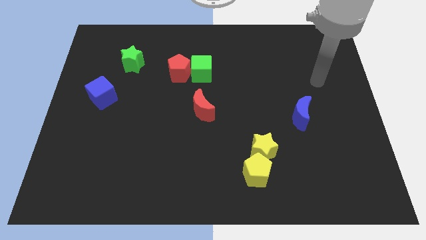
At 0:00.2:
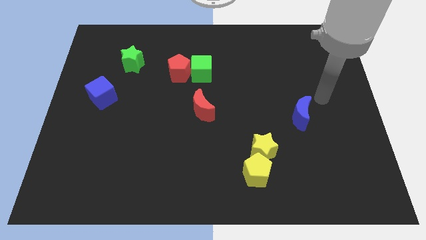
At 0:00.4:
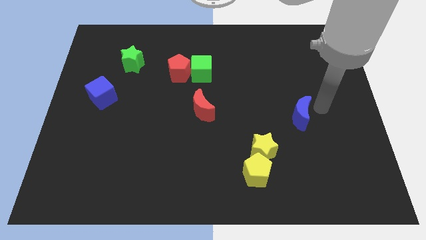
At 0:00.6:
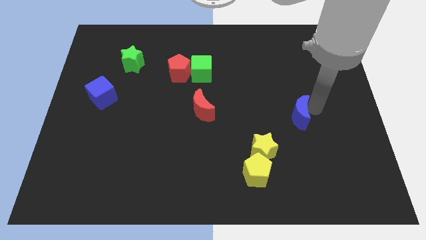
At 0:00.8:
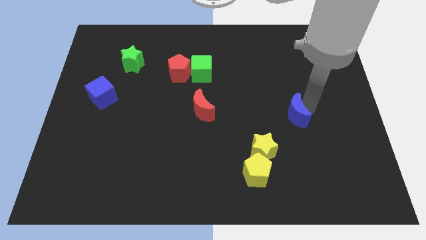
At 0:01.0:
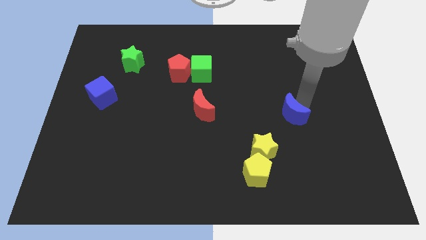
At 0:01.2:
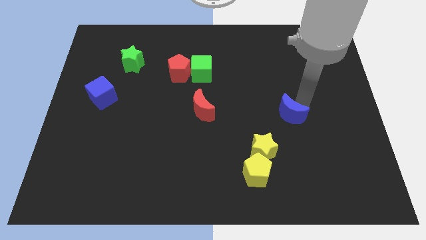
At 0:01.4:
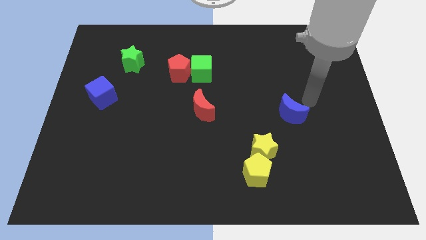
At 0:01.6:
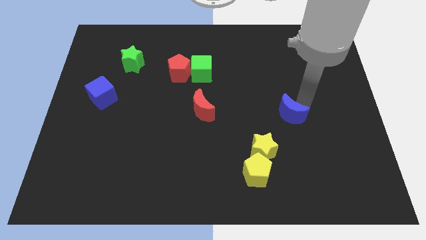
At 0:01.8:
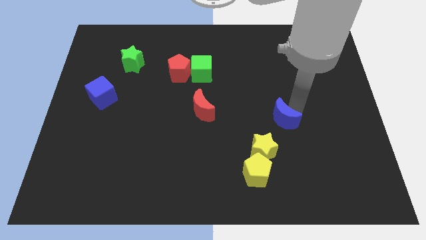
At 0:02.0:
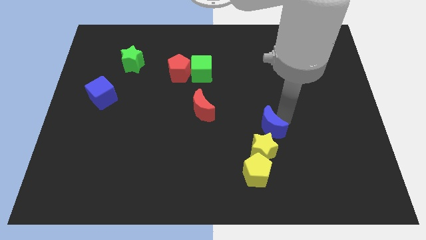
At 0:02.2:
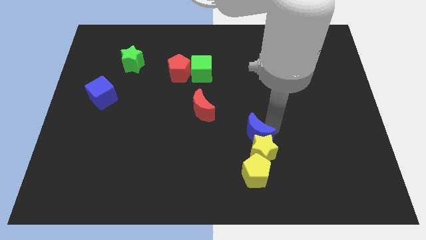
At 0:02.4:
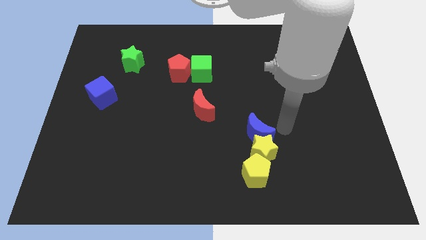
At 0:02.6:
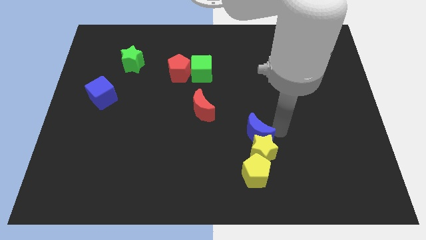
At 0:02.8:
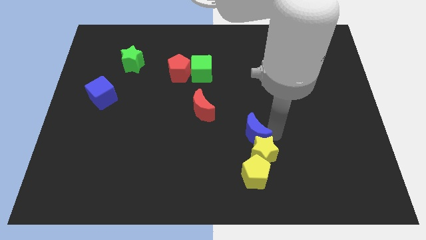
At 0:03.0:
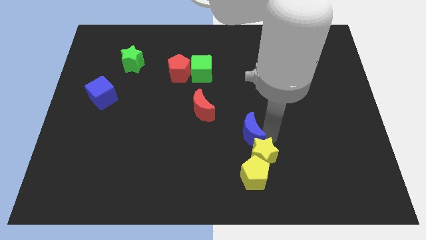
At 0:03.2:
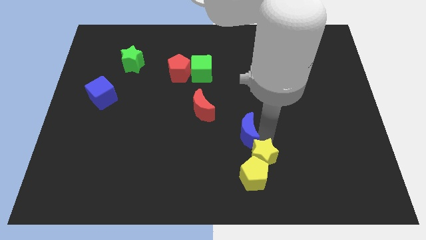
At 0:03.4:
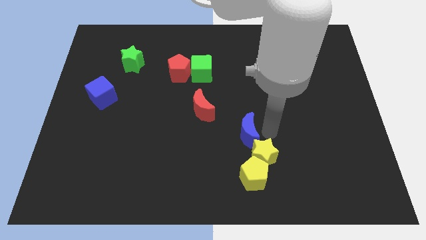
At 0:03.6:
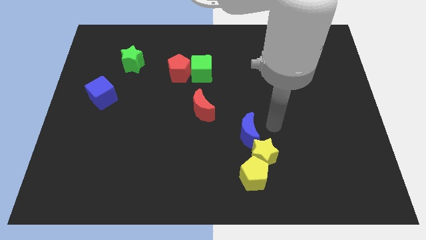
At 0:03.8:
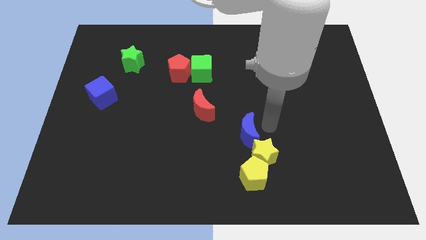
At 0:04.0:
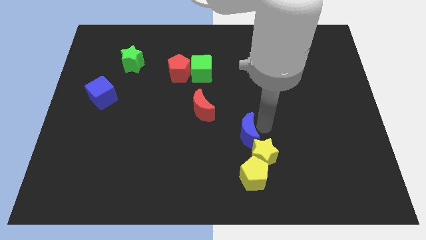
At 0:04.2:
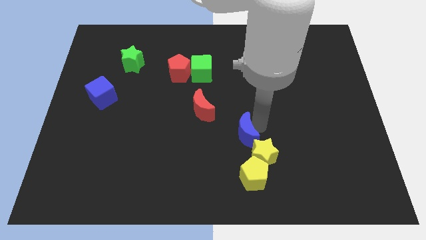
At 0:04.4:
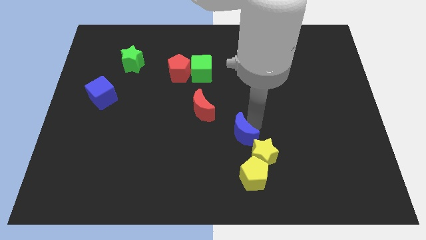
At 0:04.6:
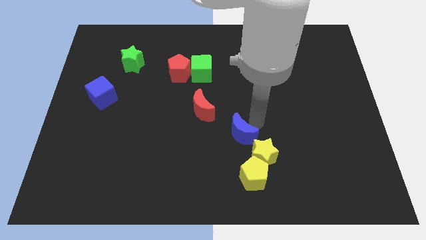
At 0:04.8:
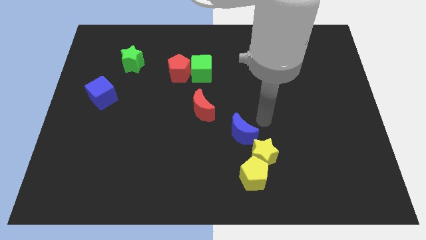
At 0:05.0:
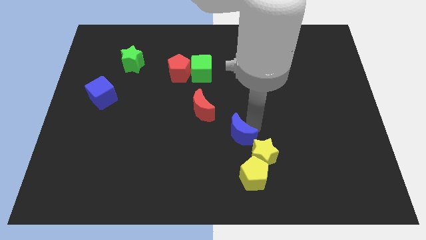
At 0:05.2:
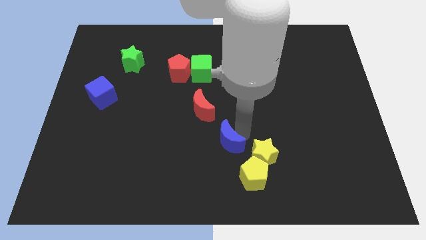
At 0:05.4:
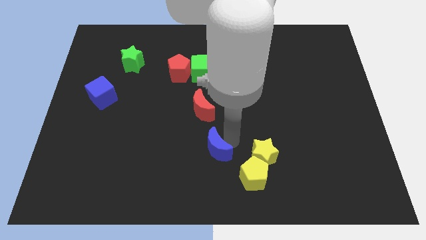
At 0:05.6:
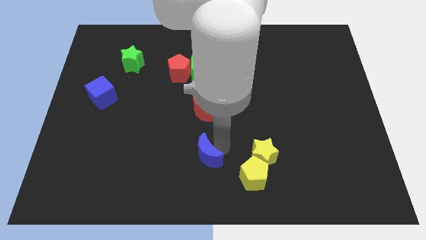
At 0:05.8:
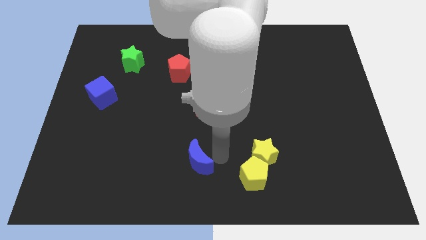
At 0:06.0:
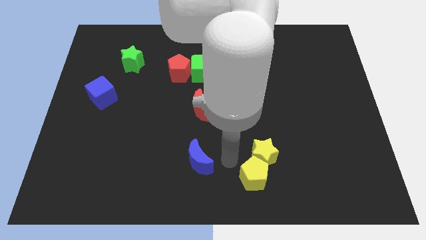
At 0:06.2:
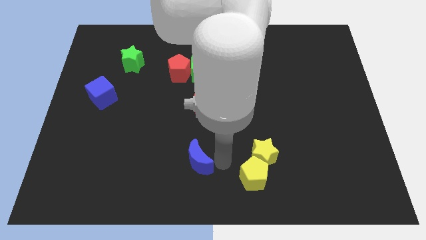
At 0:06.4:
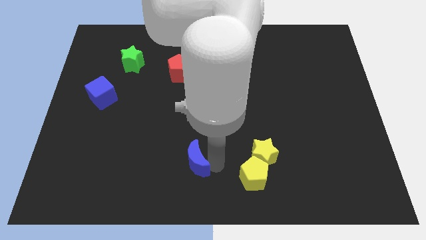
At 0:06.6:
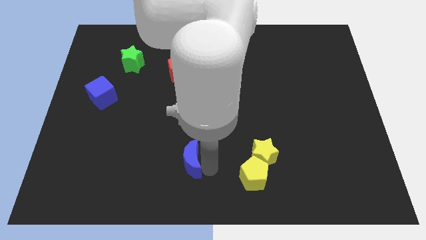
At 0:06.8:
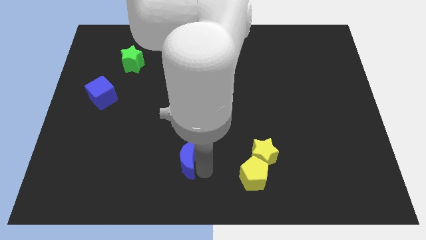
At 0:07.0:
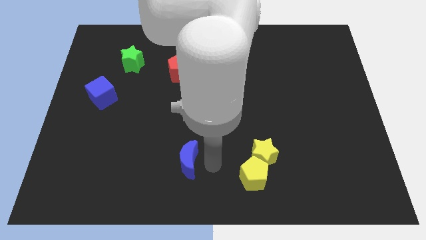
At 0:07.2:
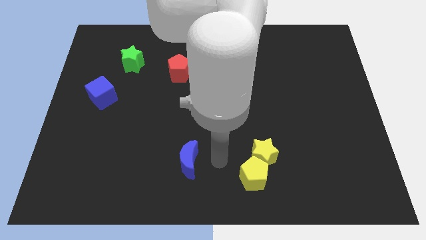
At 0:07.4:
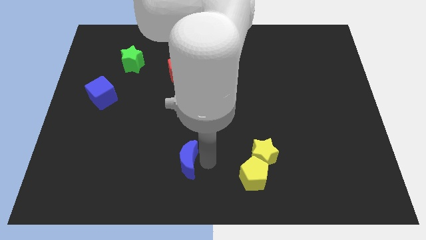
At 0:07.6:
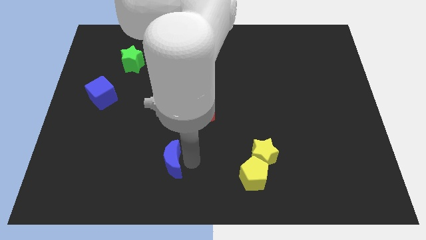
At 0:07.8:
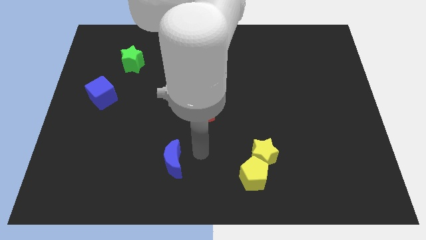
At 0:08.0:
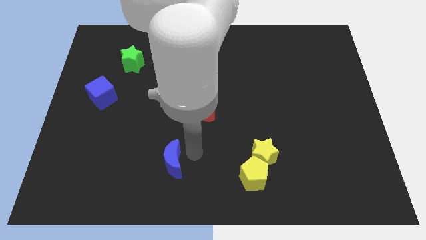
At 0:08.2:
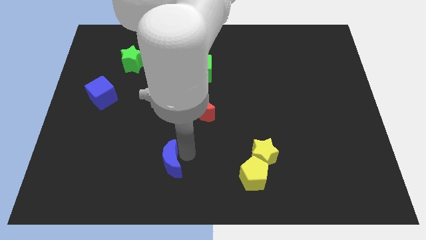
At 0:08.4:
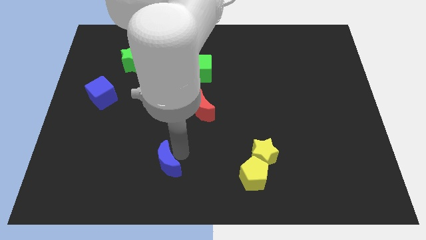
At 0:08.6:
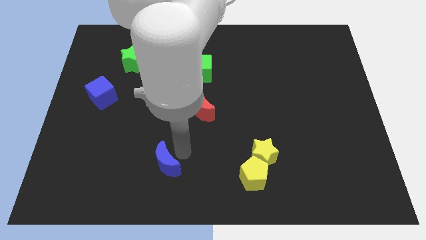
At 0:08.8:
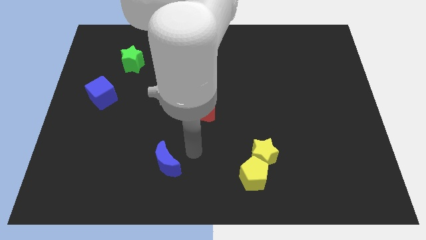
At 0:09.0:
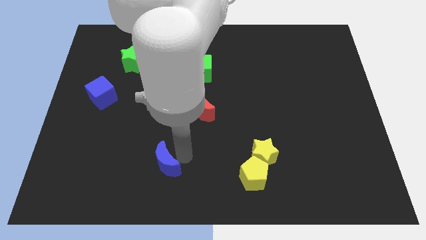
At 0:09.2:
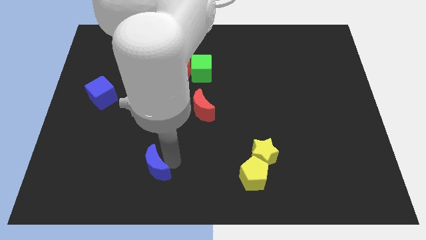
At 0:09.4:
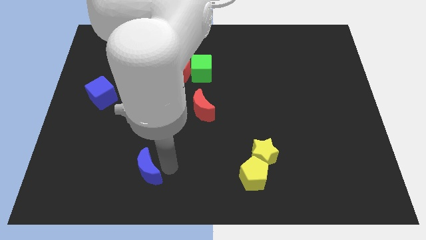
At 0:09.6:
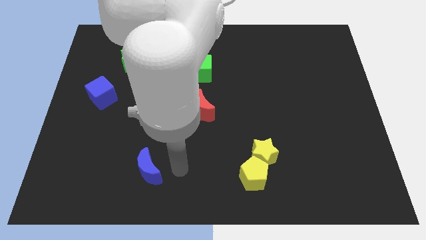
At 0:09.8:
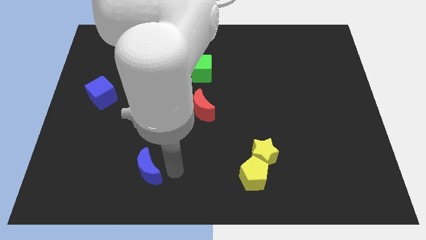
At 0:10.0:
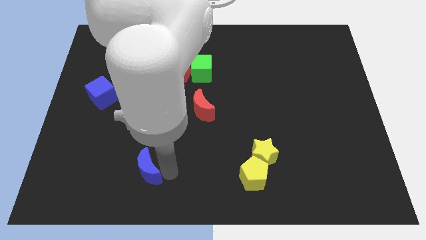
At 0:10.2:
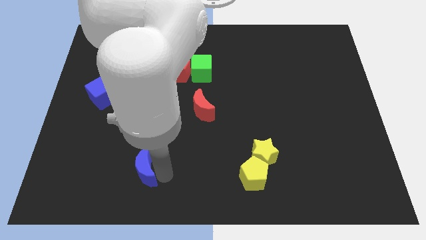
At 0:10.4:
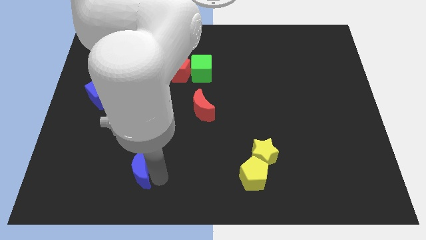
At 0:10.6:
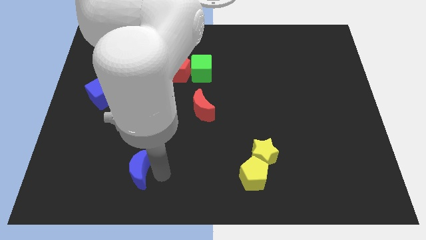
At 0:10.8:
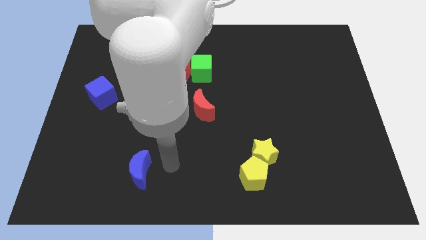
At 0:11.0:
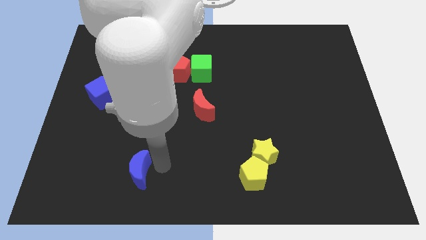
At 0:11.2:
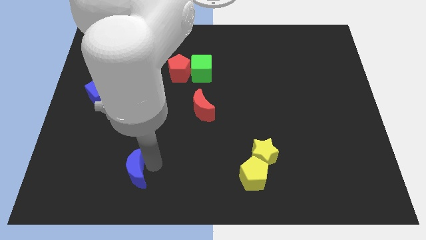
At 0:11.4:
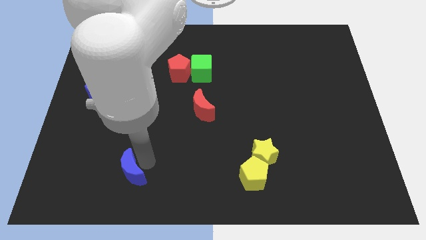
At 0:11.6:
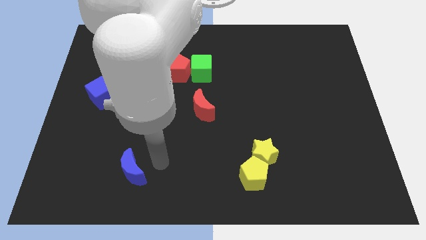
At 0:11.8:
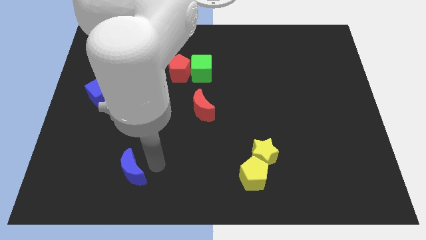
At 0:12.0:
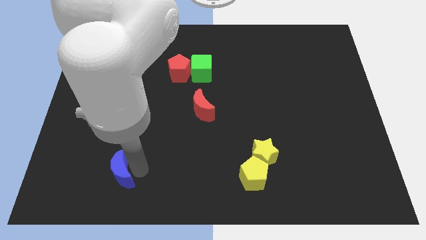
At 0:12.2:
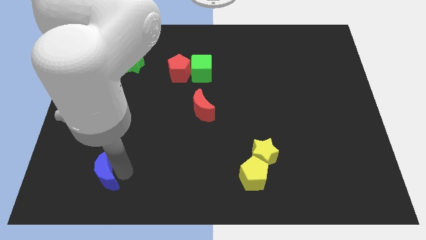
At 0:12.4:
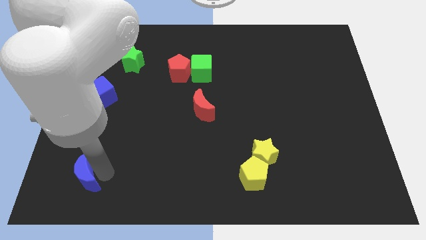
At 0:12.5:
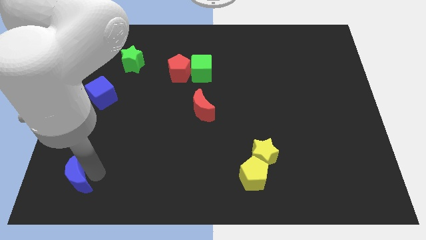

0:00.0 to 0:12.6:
move the blue moon to the bottom left of the board

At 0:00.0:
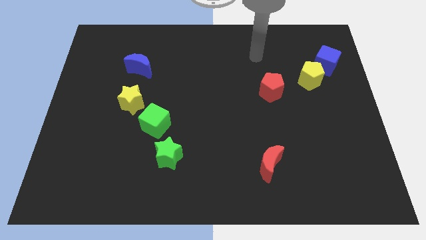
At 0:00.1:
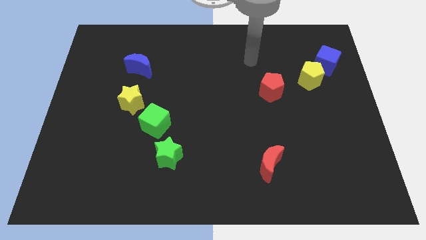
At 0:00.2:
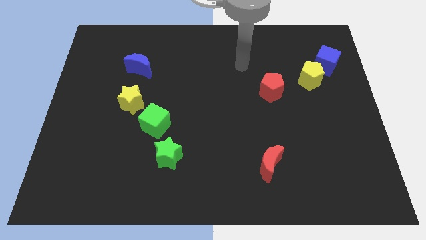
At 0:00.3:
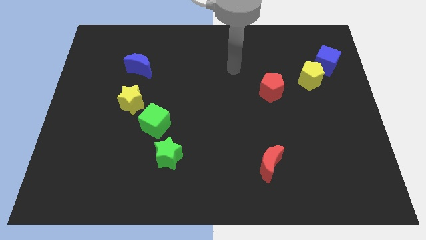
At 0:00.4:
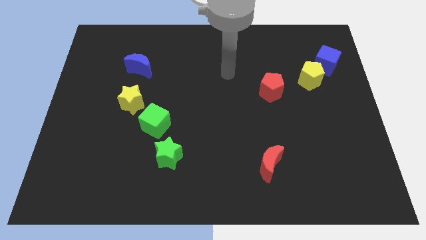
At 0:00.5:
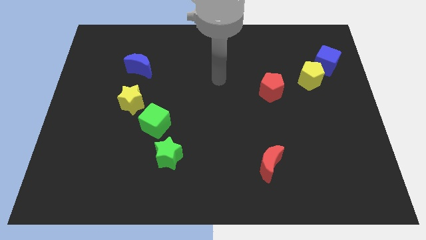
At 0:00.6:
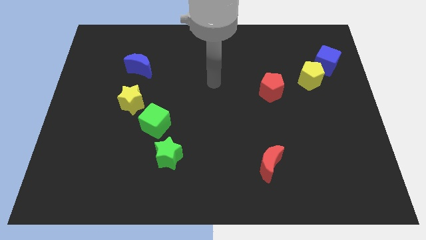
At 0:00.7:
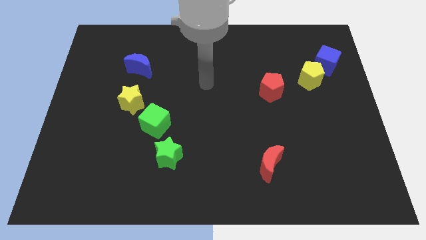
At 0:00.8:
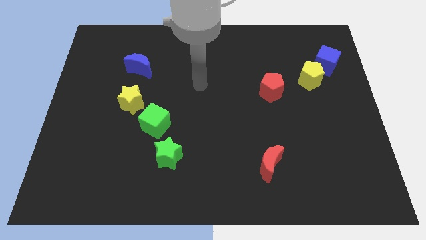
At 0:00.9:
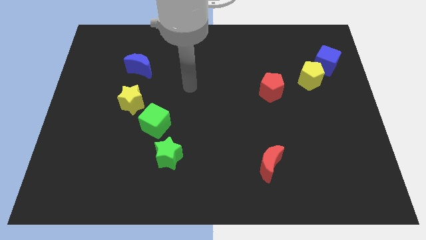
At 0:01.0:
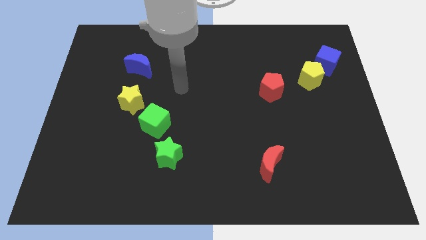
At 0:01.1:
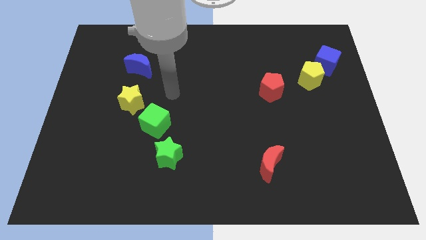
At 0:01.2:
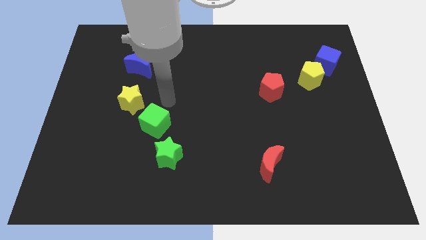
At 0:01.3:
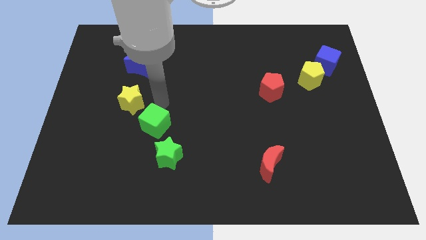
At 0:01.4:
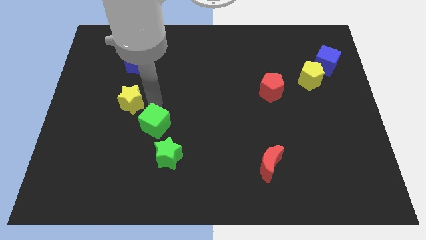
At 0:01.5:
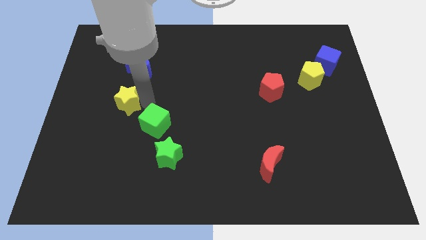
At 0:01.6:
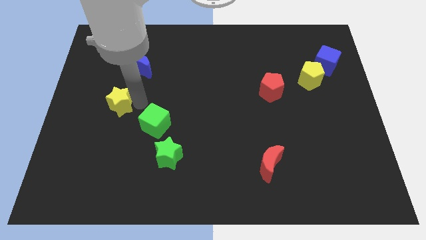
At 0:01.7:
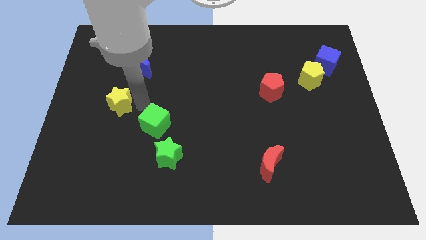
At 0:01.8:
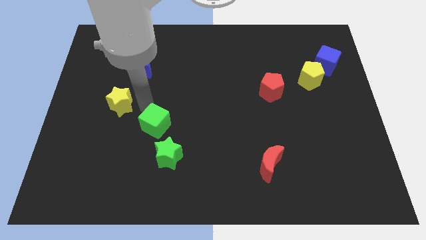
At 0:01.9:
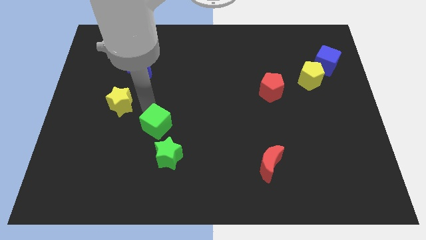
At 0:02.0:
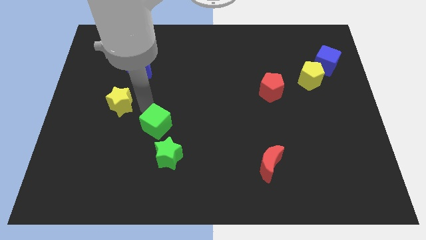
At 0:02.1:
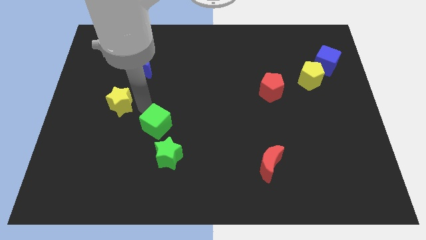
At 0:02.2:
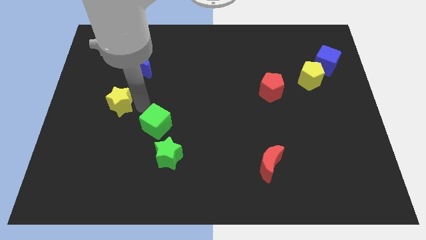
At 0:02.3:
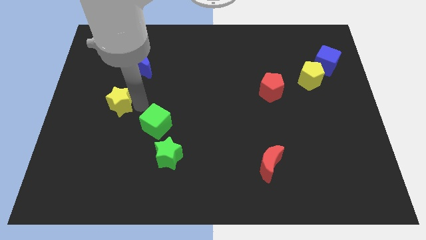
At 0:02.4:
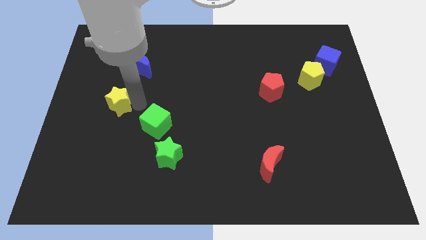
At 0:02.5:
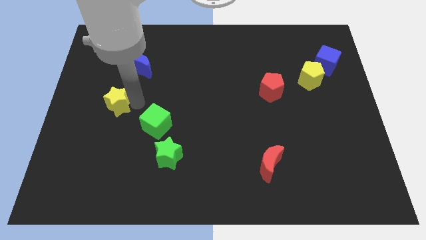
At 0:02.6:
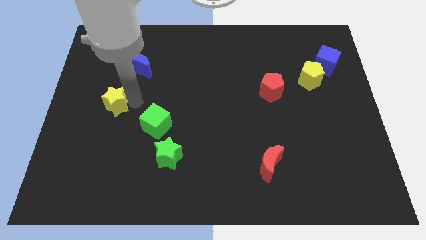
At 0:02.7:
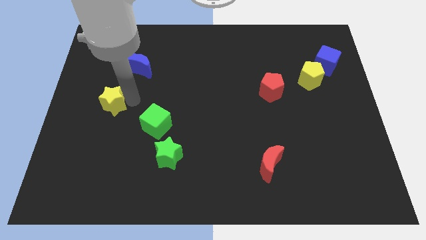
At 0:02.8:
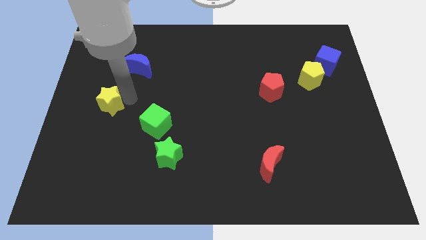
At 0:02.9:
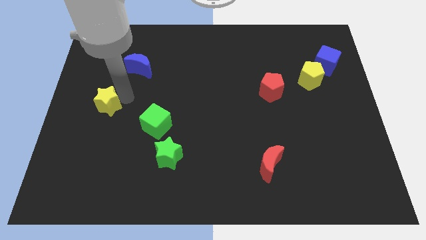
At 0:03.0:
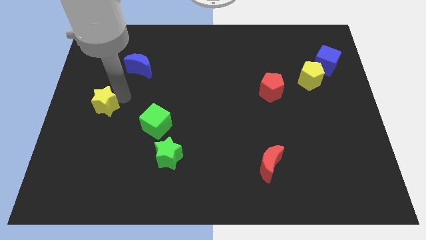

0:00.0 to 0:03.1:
put the yellow star to the left side
